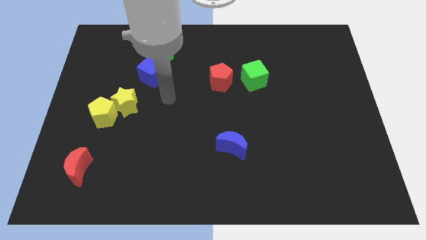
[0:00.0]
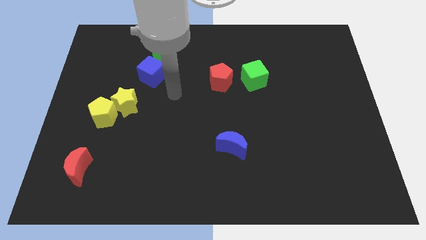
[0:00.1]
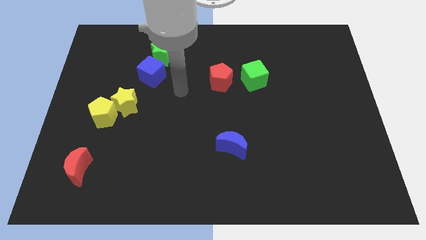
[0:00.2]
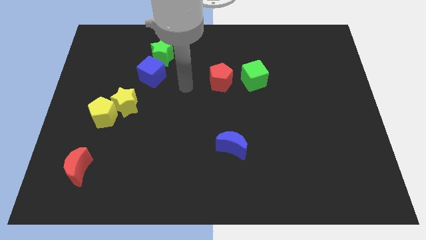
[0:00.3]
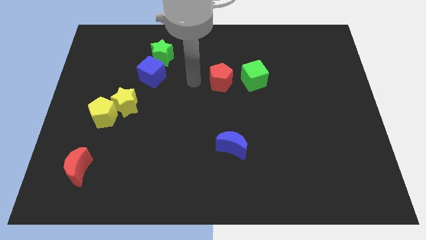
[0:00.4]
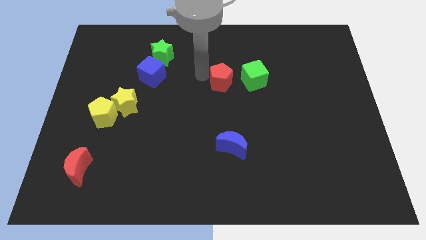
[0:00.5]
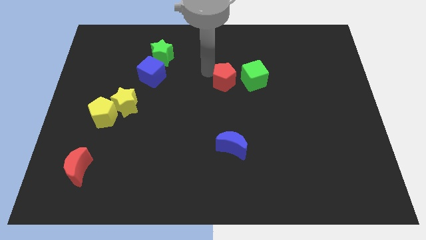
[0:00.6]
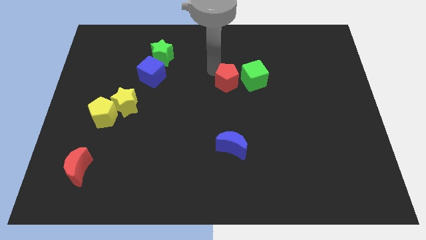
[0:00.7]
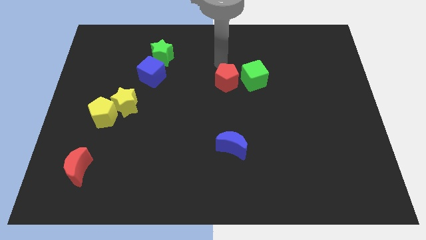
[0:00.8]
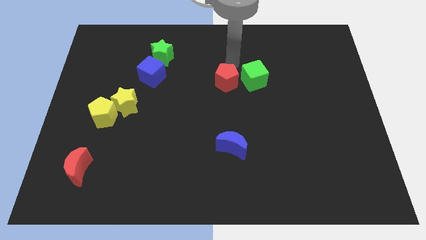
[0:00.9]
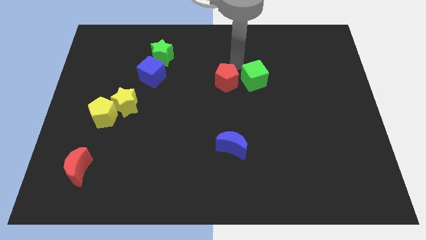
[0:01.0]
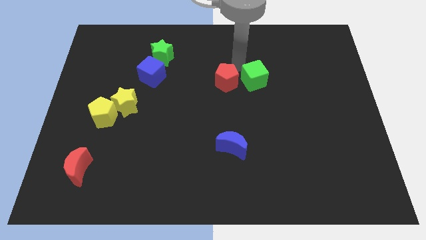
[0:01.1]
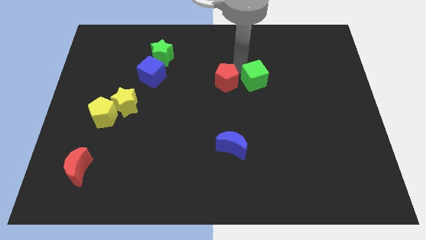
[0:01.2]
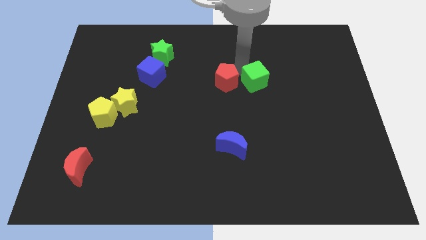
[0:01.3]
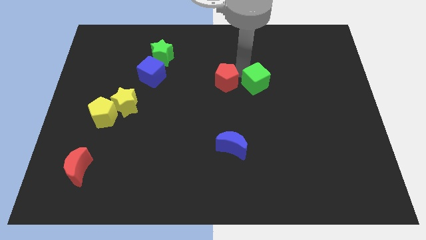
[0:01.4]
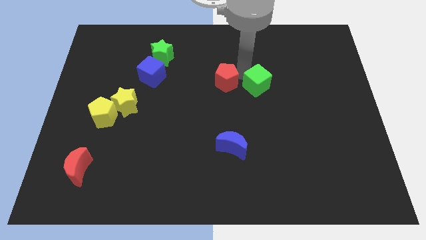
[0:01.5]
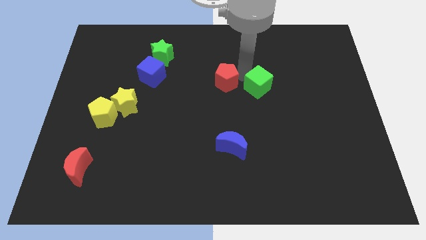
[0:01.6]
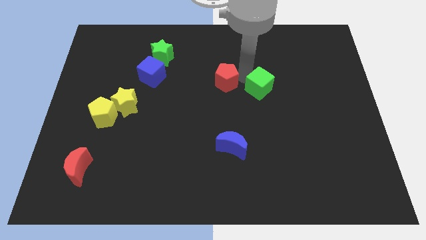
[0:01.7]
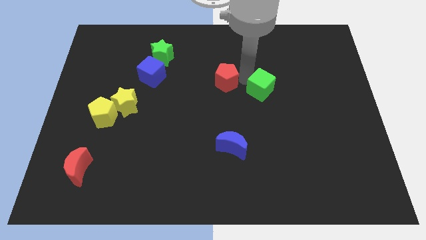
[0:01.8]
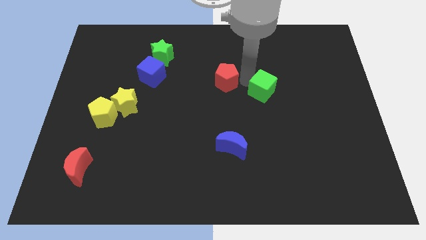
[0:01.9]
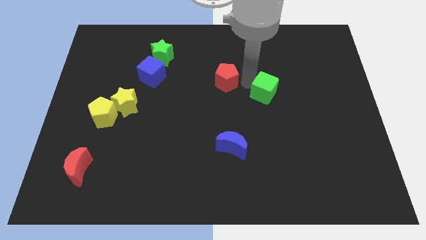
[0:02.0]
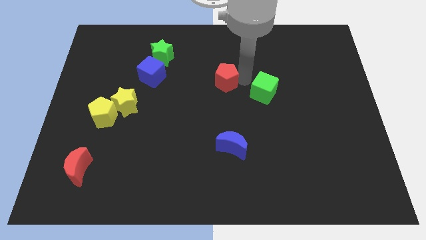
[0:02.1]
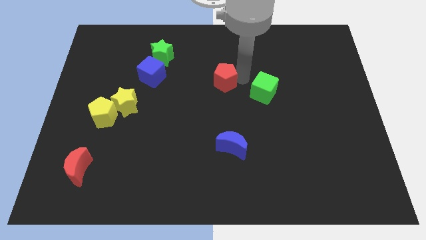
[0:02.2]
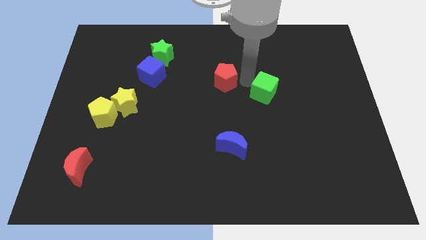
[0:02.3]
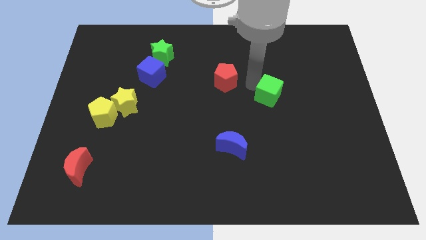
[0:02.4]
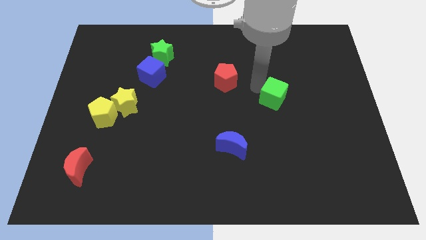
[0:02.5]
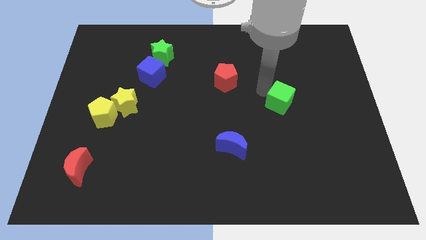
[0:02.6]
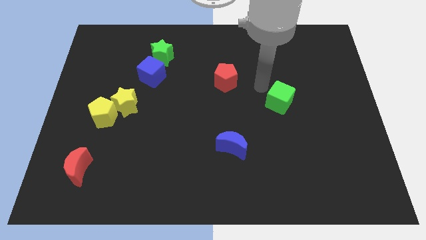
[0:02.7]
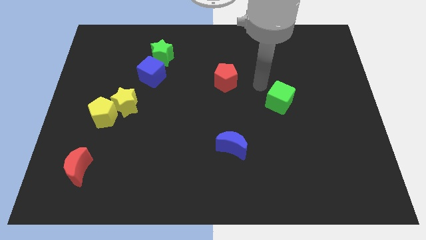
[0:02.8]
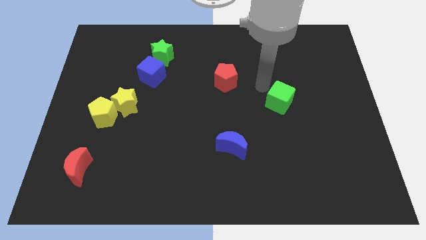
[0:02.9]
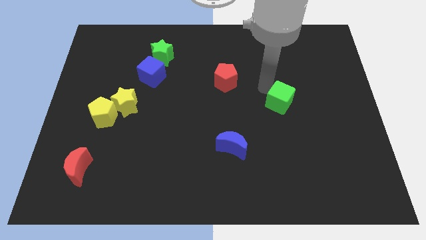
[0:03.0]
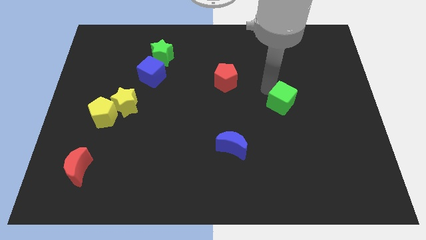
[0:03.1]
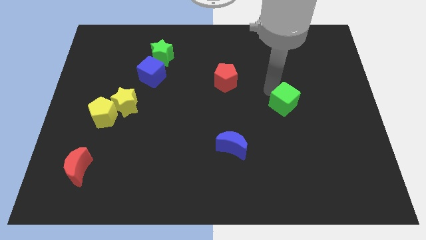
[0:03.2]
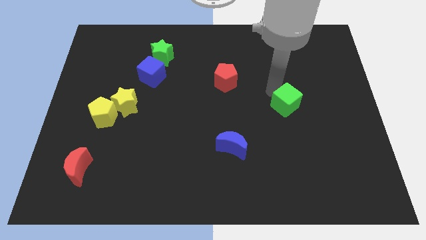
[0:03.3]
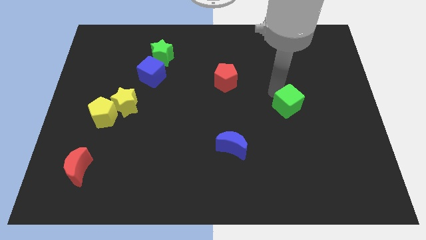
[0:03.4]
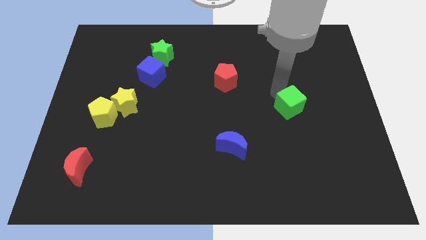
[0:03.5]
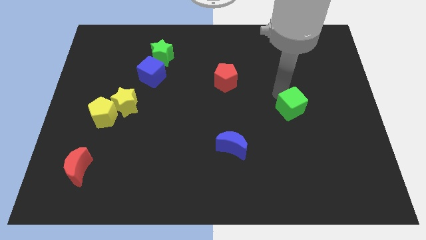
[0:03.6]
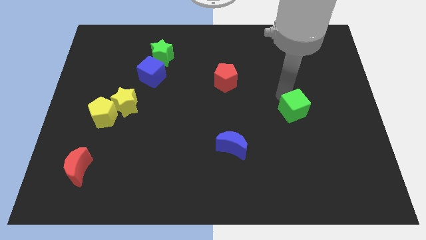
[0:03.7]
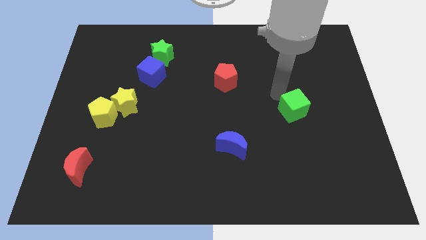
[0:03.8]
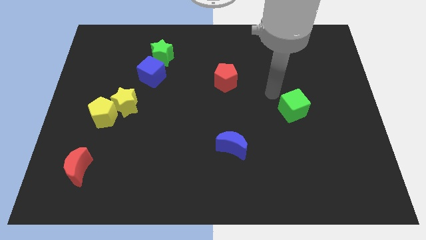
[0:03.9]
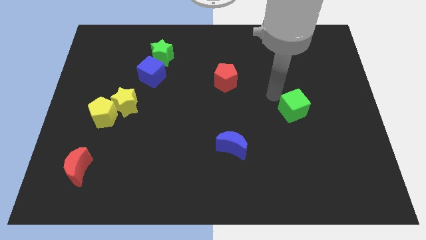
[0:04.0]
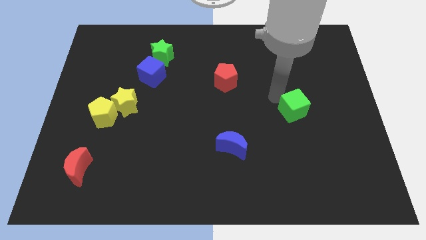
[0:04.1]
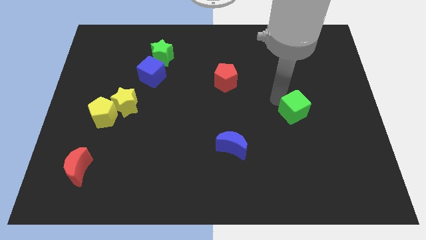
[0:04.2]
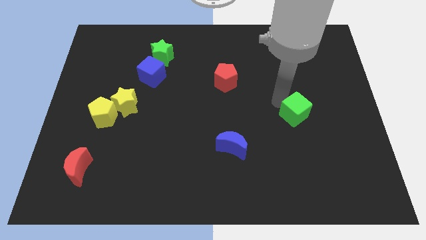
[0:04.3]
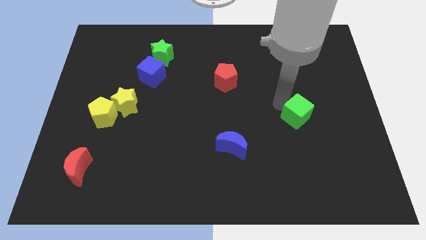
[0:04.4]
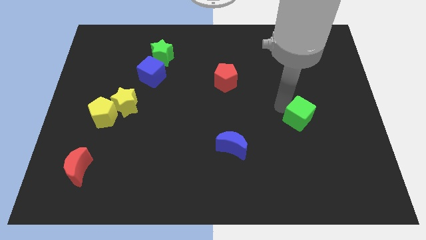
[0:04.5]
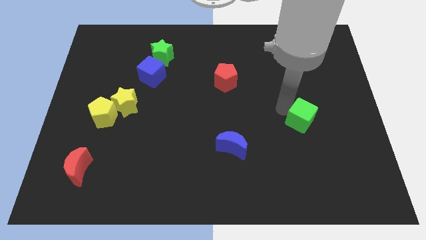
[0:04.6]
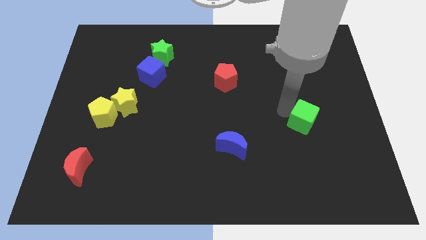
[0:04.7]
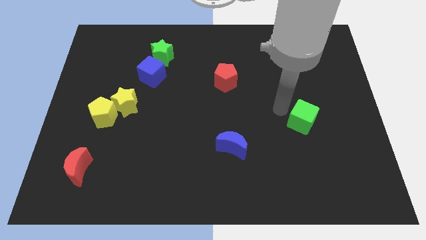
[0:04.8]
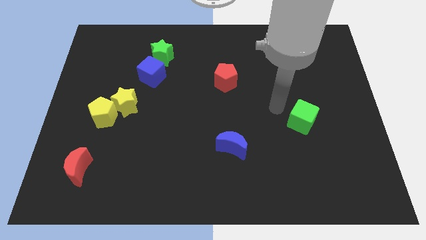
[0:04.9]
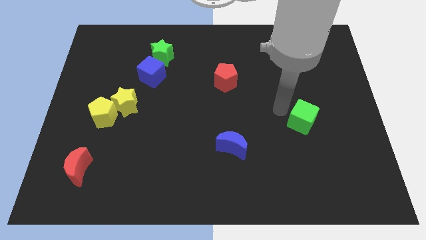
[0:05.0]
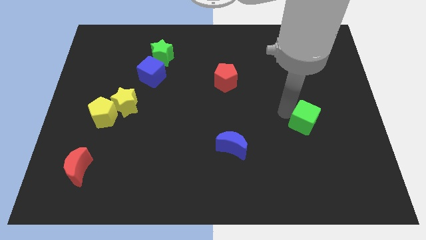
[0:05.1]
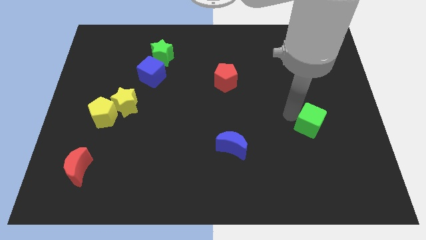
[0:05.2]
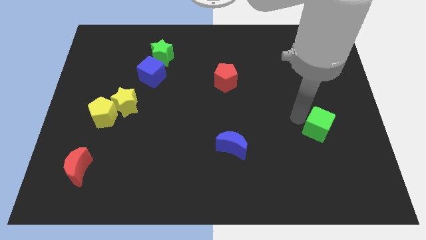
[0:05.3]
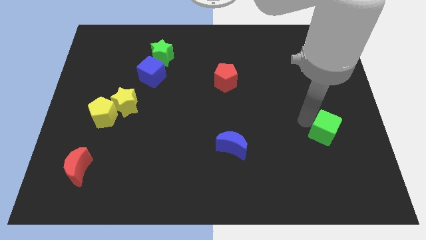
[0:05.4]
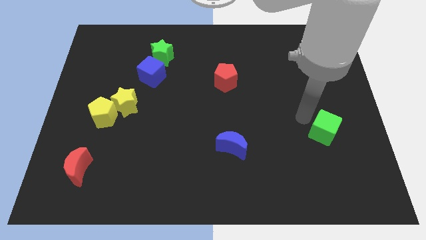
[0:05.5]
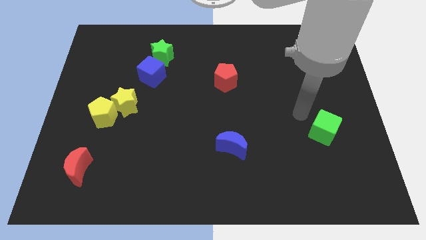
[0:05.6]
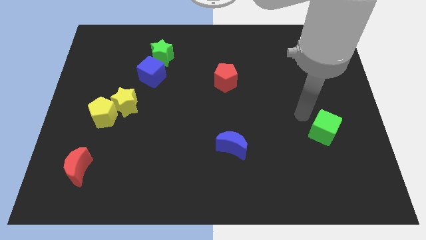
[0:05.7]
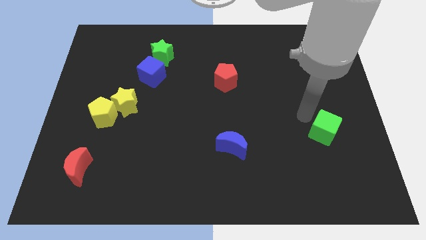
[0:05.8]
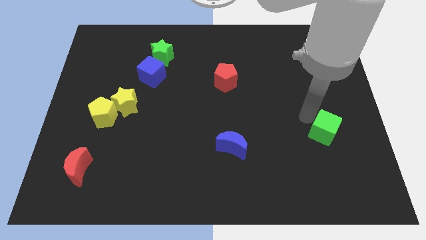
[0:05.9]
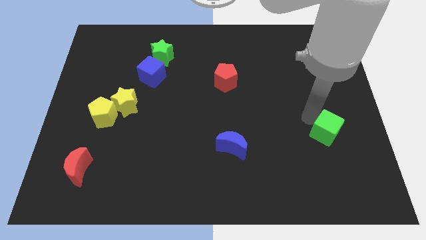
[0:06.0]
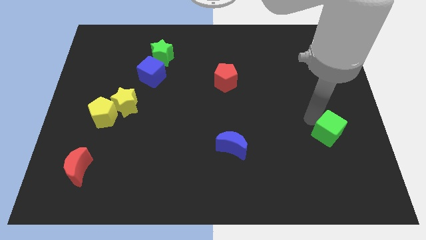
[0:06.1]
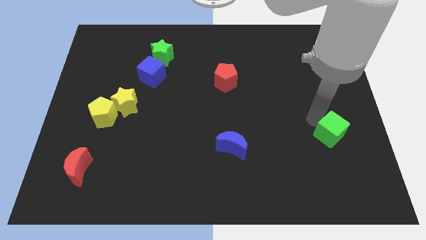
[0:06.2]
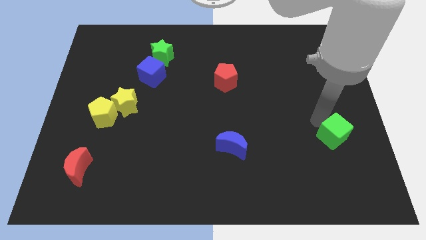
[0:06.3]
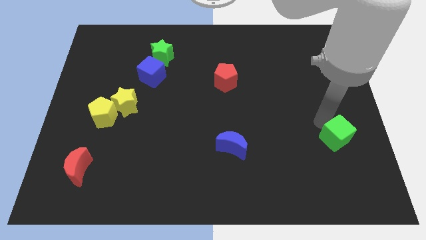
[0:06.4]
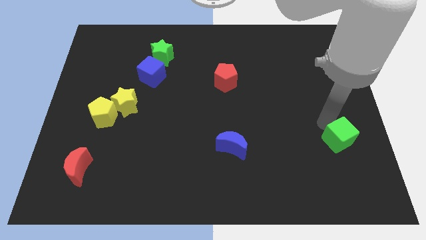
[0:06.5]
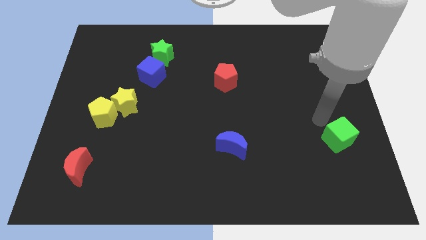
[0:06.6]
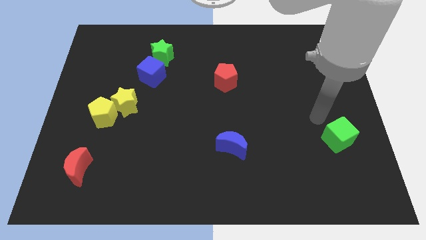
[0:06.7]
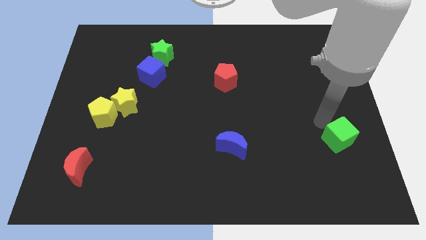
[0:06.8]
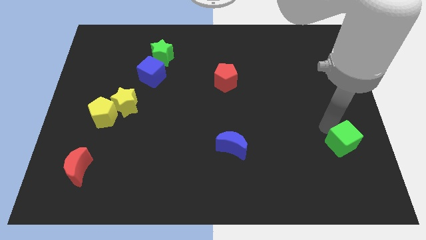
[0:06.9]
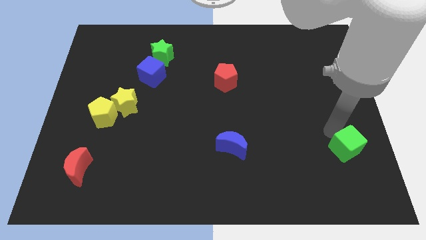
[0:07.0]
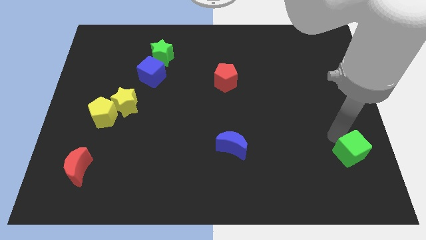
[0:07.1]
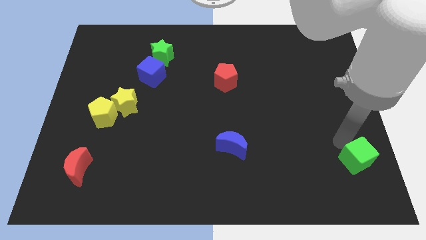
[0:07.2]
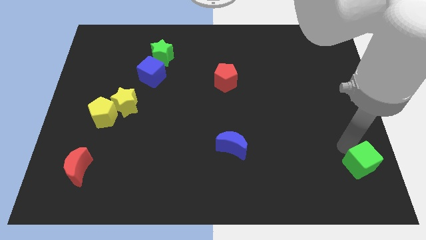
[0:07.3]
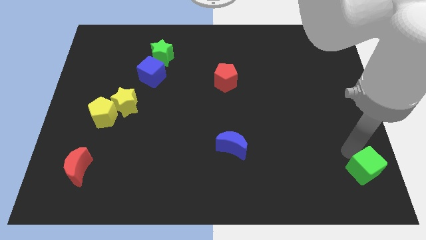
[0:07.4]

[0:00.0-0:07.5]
move the green cube to the lower right corner
